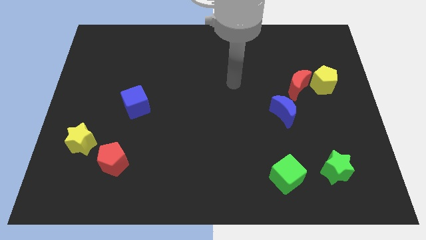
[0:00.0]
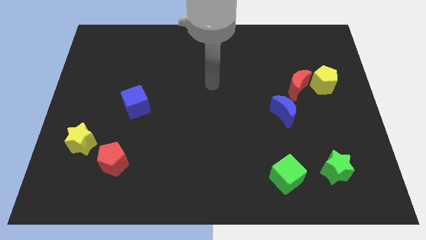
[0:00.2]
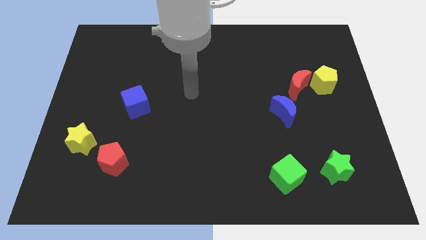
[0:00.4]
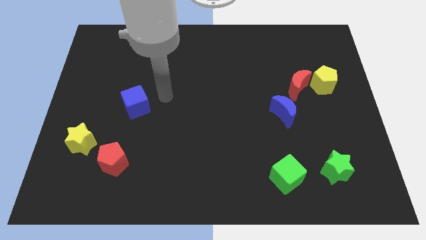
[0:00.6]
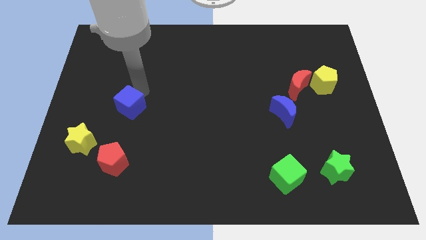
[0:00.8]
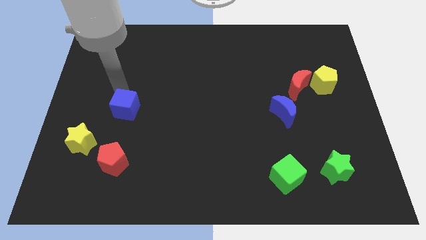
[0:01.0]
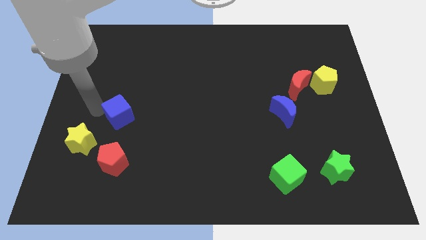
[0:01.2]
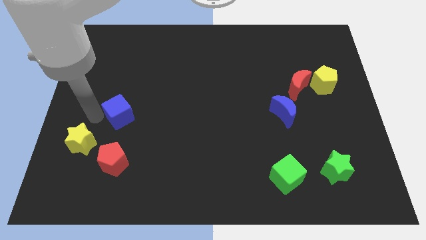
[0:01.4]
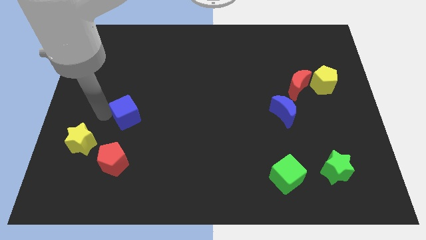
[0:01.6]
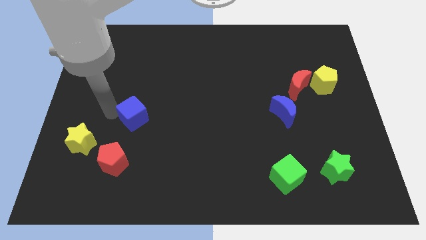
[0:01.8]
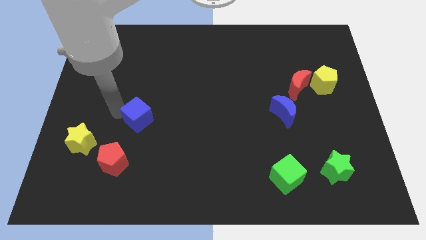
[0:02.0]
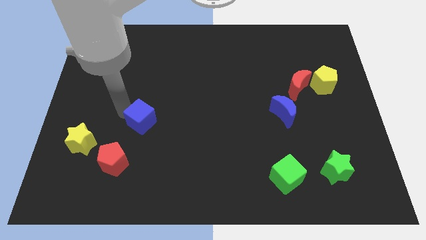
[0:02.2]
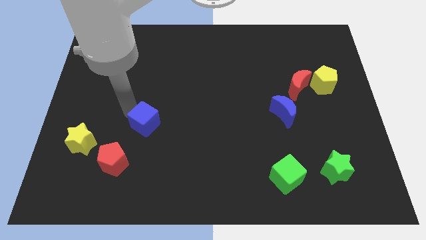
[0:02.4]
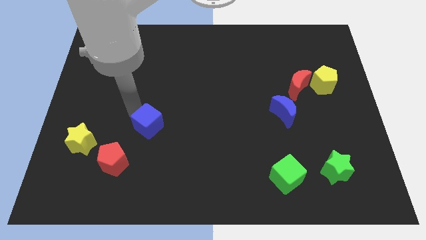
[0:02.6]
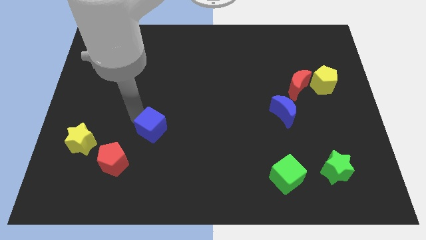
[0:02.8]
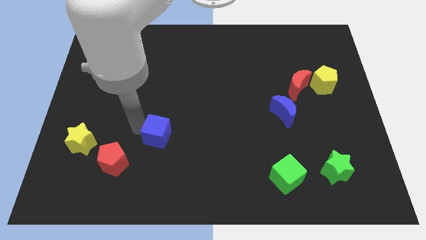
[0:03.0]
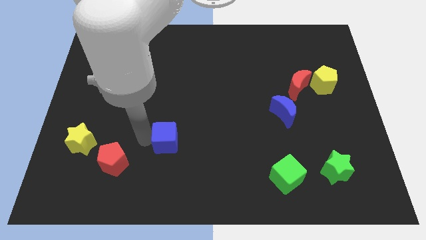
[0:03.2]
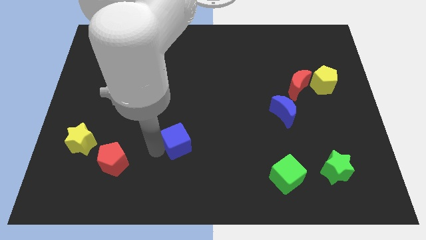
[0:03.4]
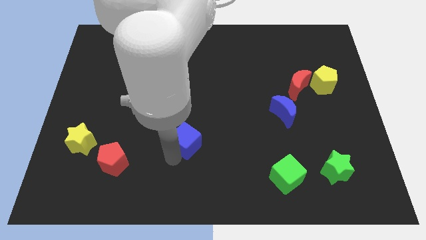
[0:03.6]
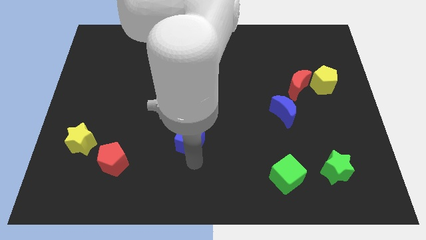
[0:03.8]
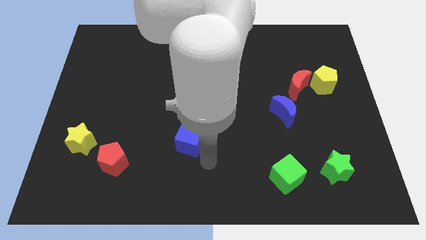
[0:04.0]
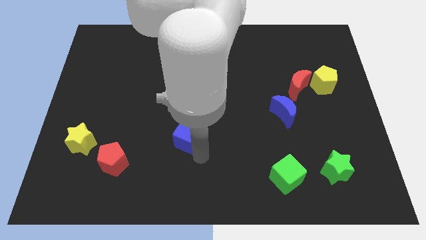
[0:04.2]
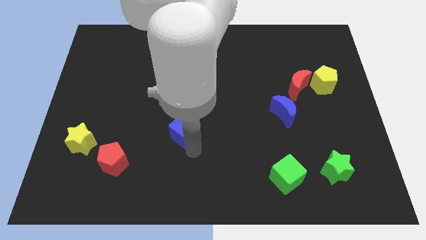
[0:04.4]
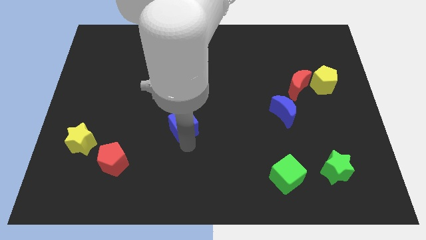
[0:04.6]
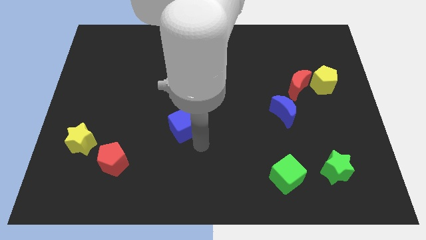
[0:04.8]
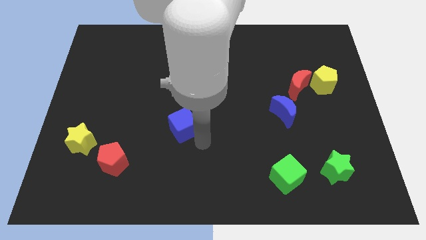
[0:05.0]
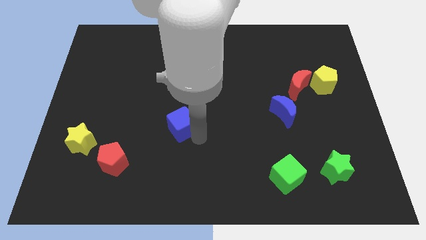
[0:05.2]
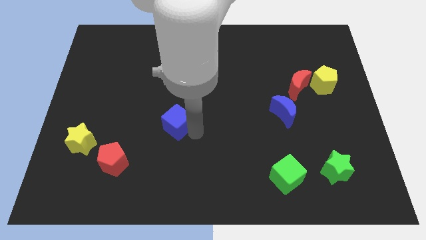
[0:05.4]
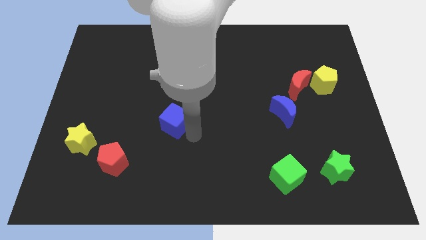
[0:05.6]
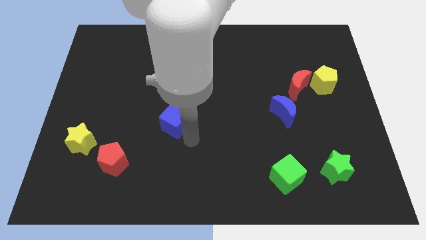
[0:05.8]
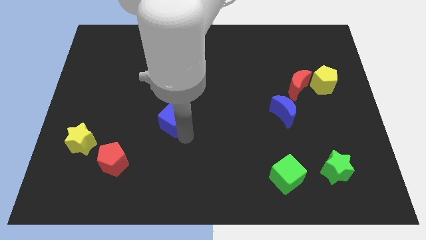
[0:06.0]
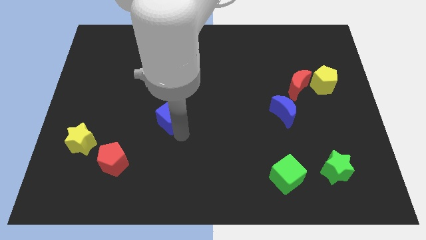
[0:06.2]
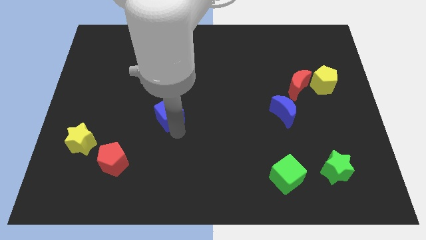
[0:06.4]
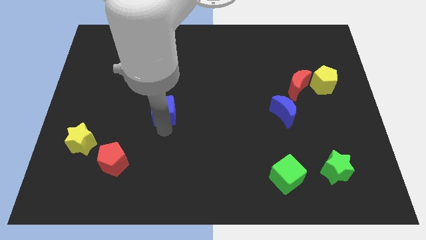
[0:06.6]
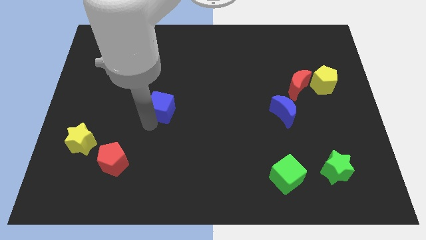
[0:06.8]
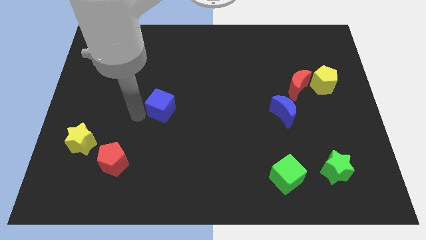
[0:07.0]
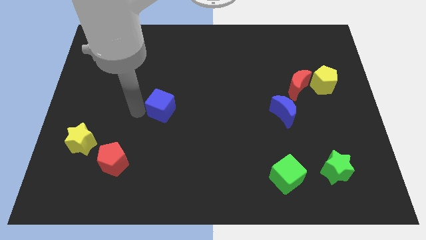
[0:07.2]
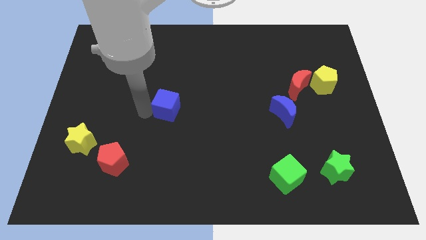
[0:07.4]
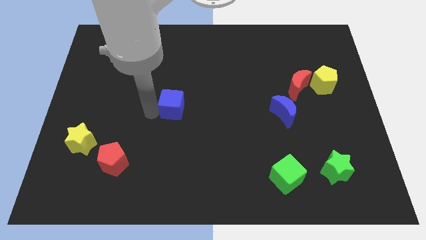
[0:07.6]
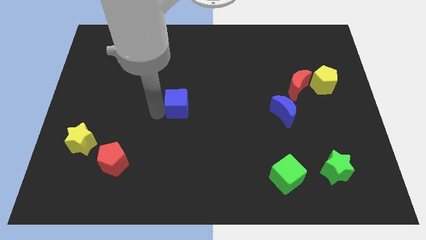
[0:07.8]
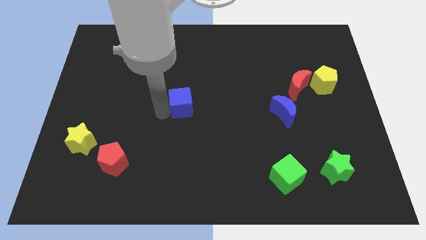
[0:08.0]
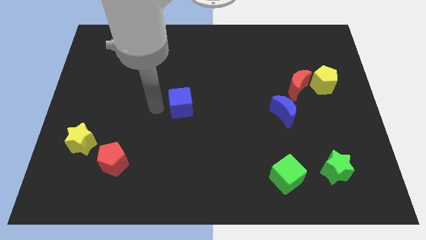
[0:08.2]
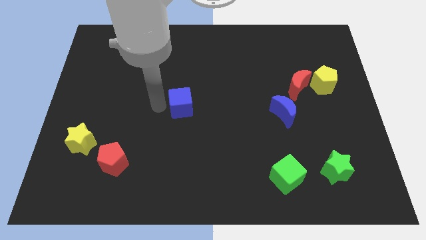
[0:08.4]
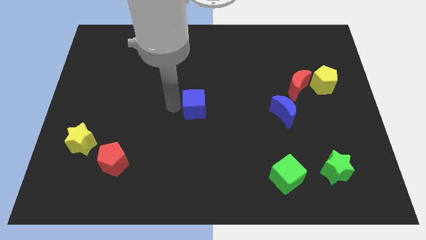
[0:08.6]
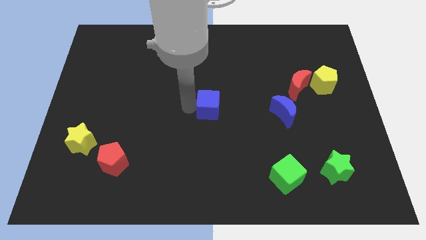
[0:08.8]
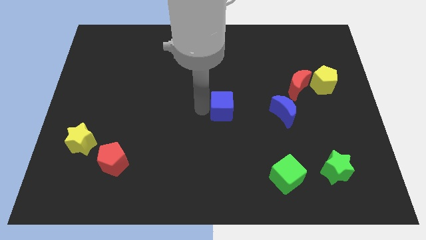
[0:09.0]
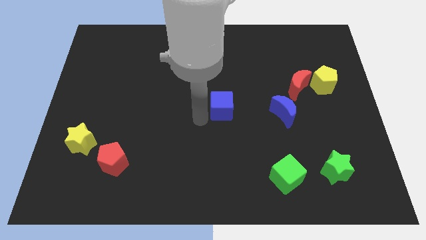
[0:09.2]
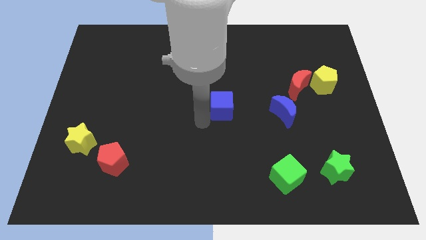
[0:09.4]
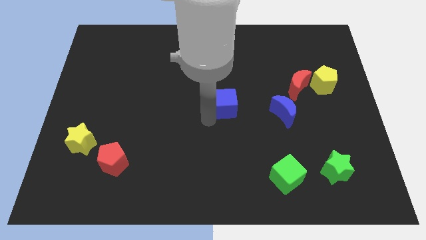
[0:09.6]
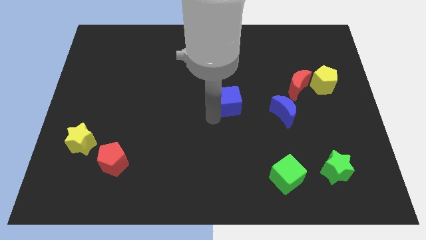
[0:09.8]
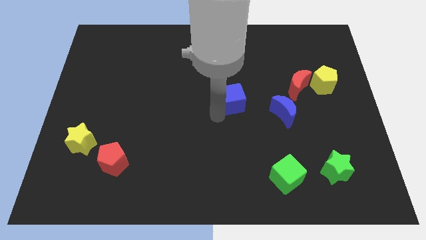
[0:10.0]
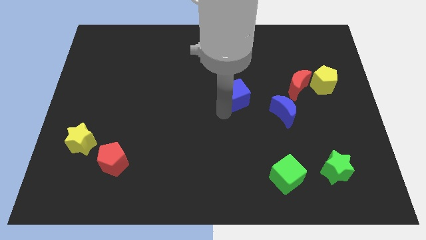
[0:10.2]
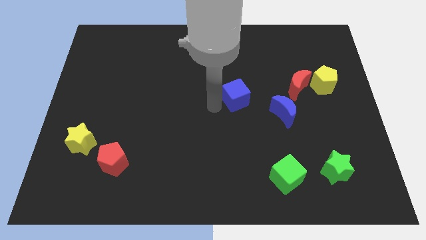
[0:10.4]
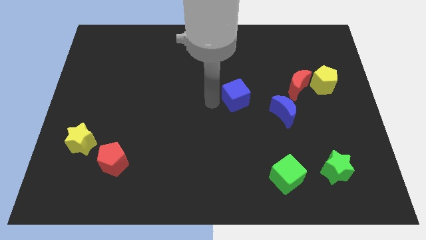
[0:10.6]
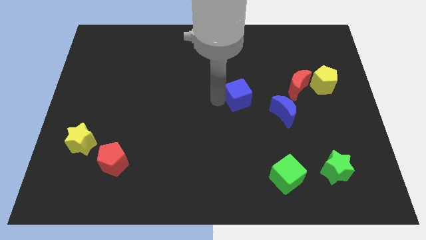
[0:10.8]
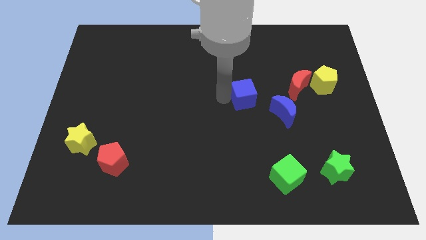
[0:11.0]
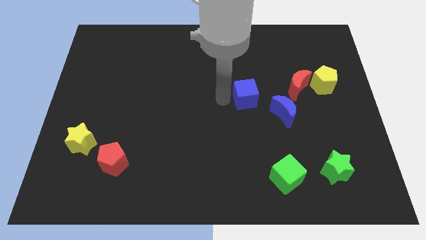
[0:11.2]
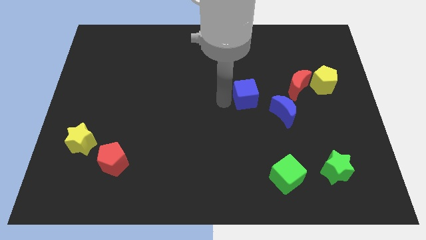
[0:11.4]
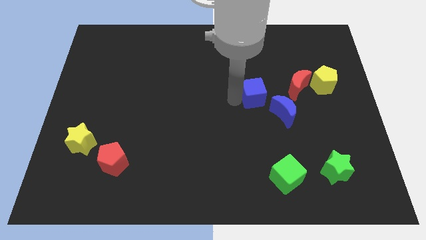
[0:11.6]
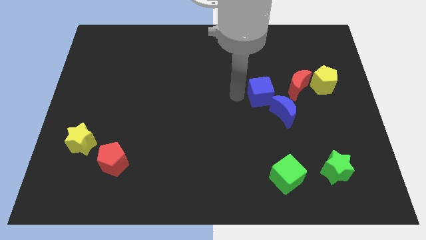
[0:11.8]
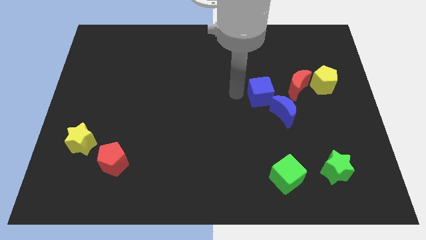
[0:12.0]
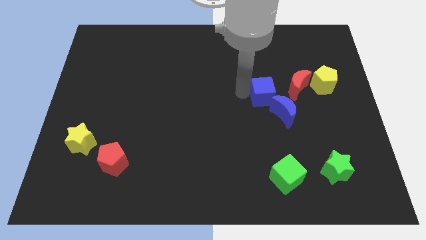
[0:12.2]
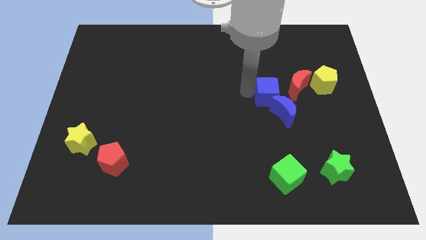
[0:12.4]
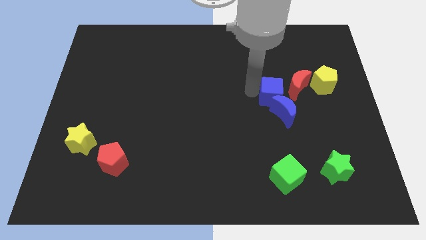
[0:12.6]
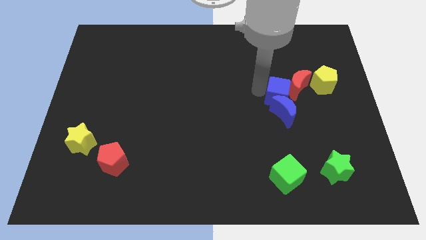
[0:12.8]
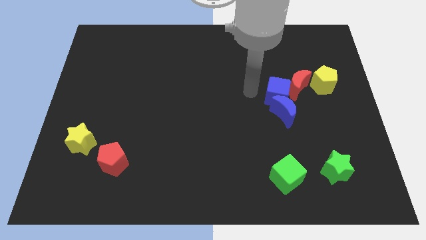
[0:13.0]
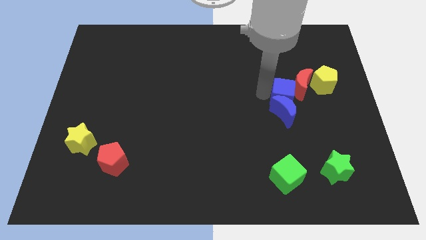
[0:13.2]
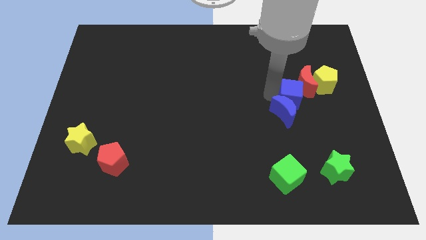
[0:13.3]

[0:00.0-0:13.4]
slide the blue cube diagonally down and to the left of the yellow pentagon

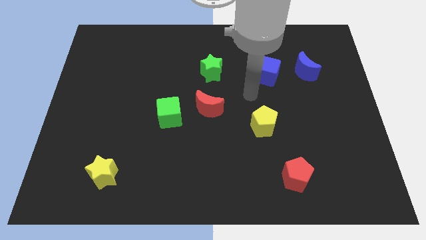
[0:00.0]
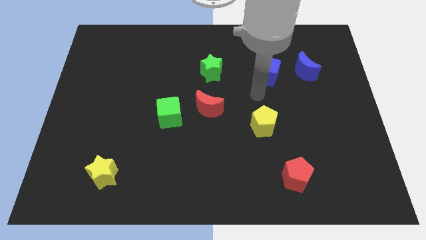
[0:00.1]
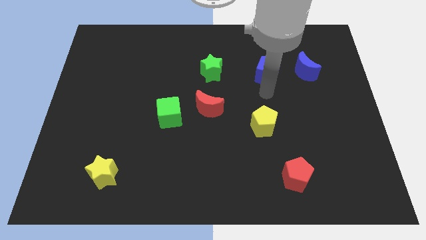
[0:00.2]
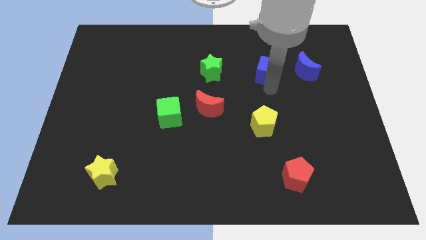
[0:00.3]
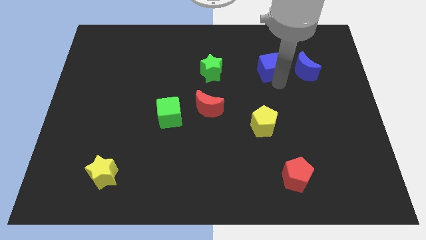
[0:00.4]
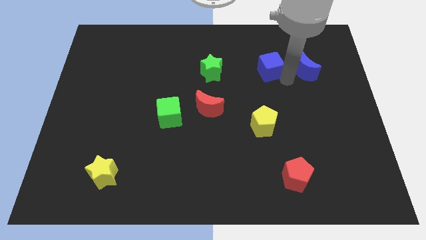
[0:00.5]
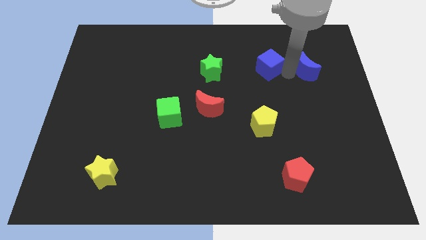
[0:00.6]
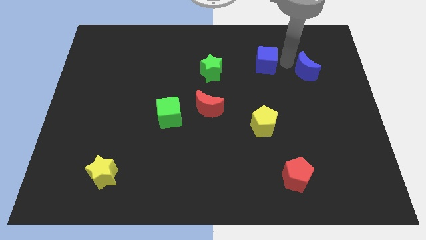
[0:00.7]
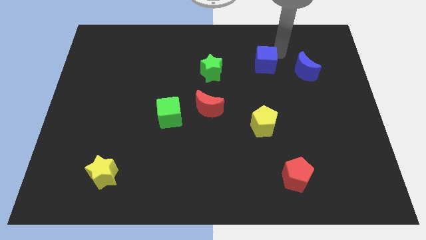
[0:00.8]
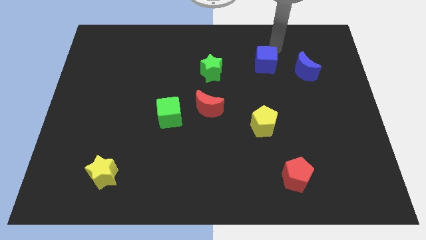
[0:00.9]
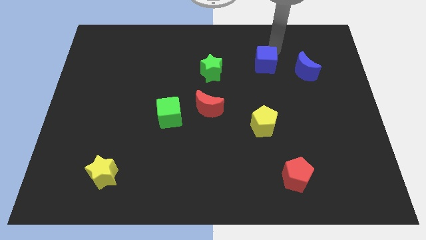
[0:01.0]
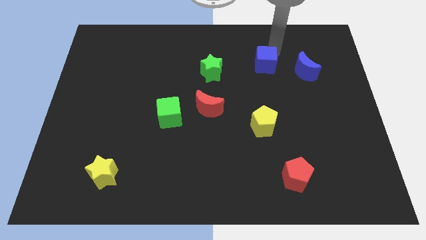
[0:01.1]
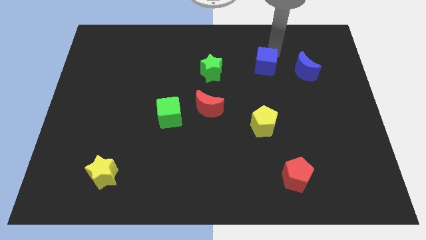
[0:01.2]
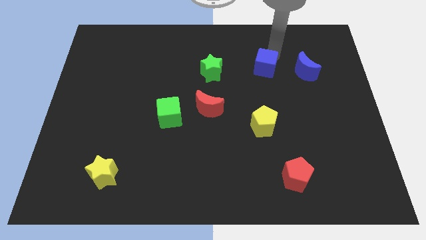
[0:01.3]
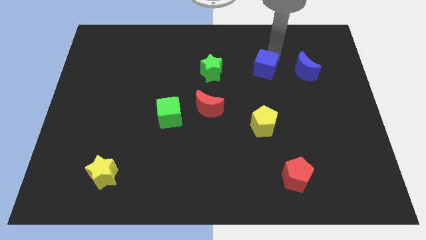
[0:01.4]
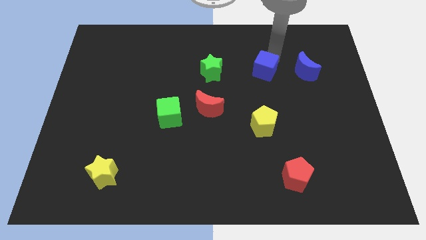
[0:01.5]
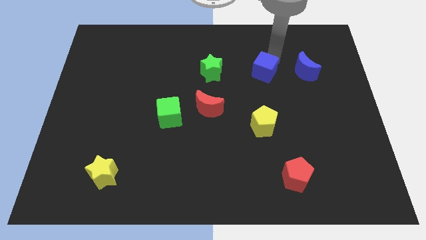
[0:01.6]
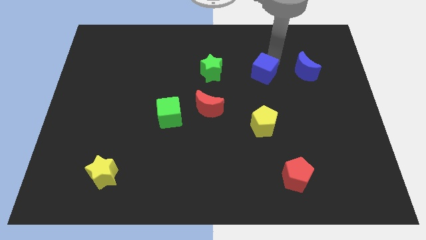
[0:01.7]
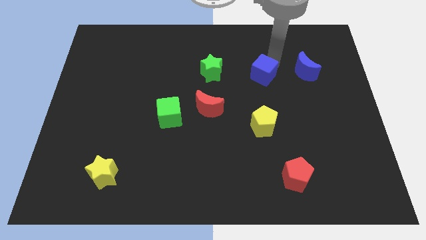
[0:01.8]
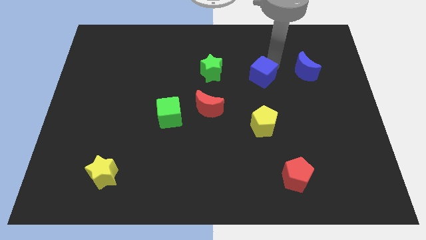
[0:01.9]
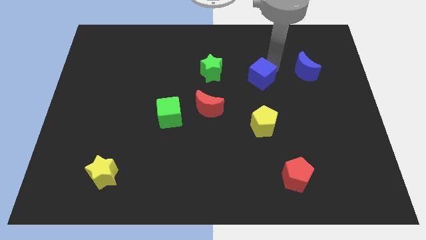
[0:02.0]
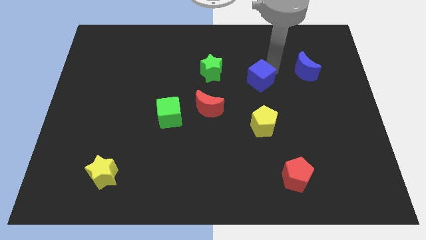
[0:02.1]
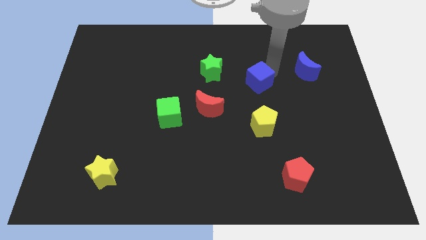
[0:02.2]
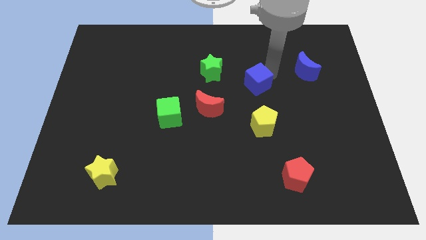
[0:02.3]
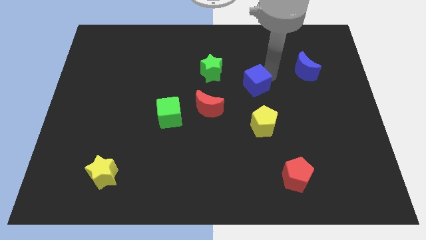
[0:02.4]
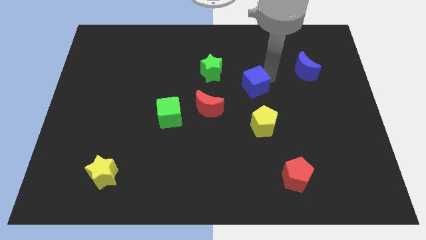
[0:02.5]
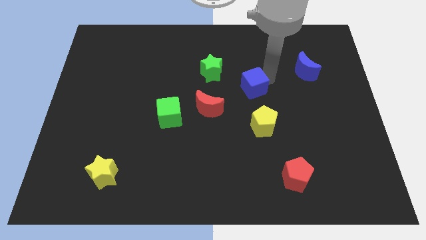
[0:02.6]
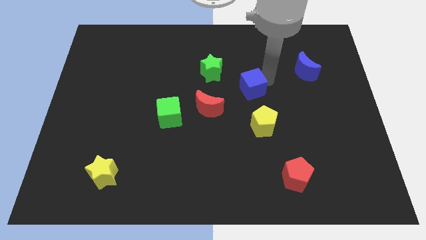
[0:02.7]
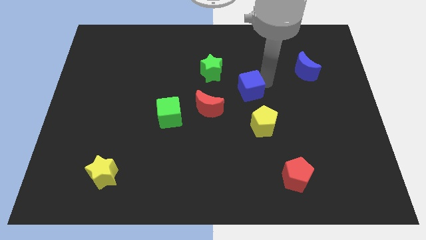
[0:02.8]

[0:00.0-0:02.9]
slide the blue cube to the top right of the red moon
